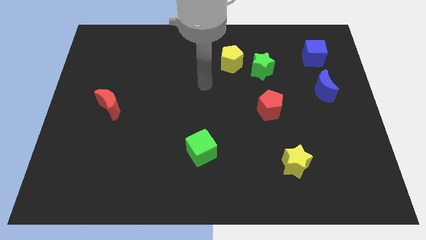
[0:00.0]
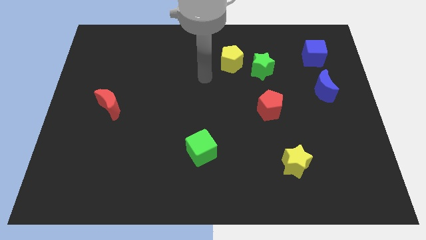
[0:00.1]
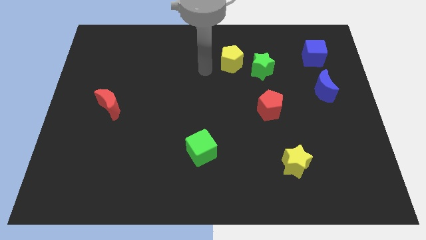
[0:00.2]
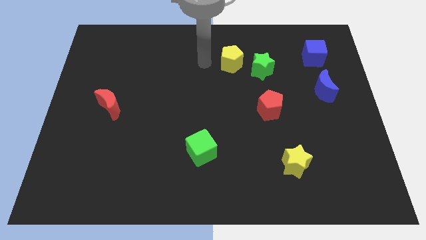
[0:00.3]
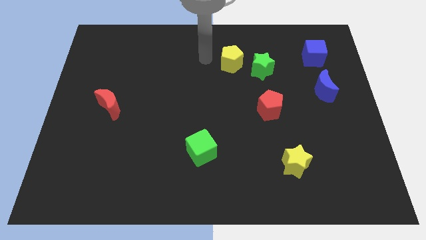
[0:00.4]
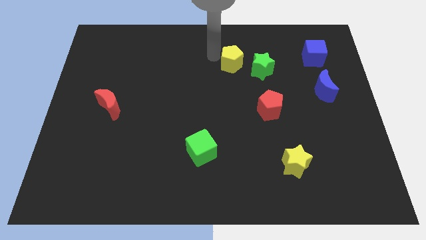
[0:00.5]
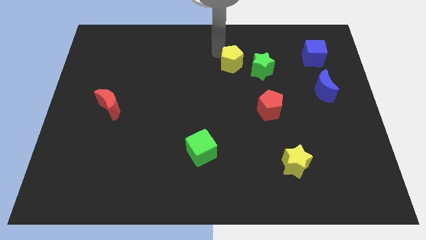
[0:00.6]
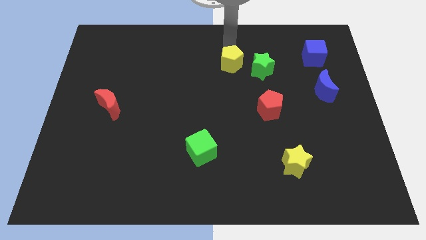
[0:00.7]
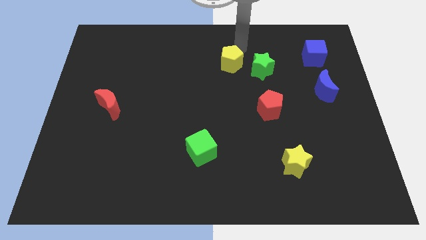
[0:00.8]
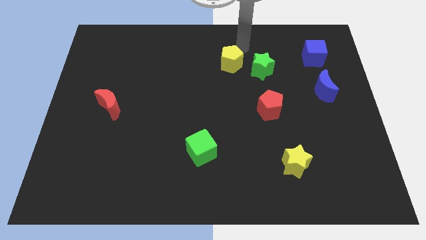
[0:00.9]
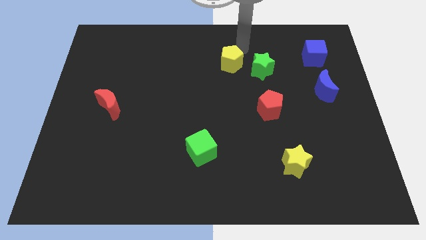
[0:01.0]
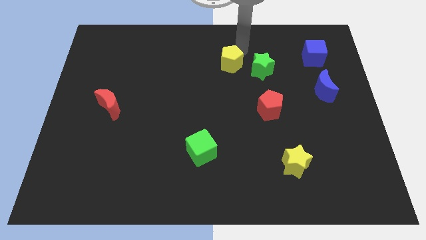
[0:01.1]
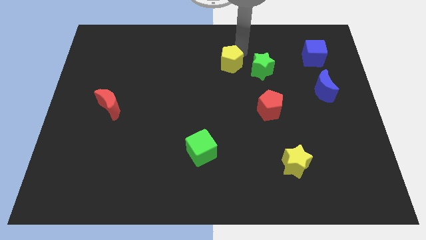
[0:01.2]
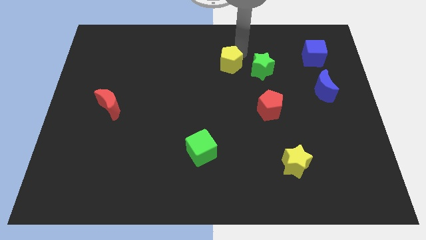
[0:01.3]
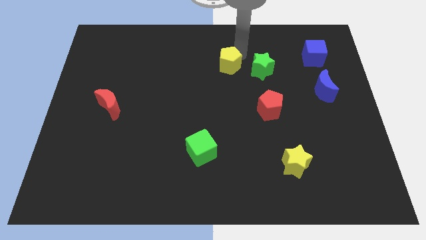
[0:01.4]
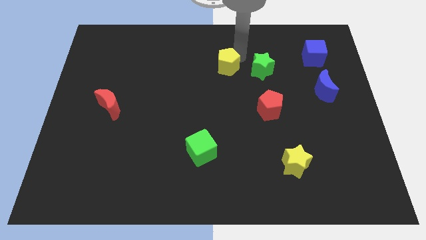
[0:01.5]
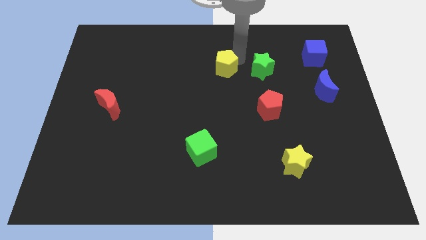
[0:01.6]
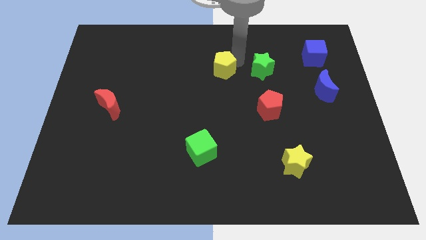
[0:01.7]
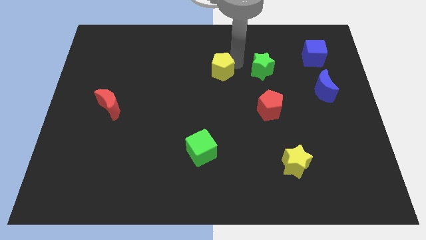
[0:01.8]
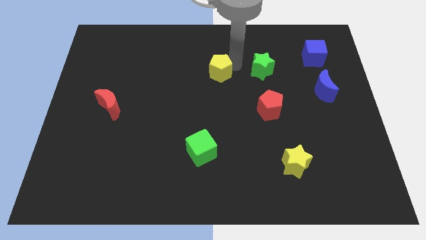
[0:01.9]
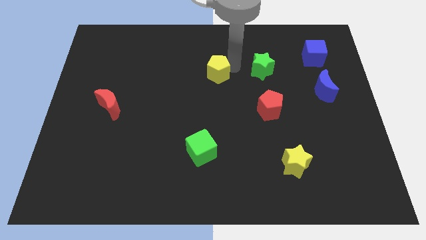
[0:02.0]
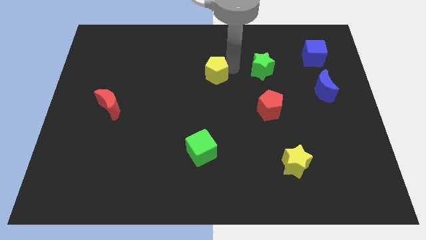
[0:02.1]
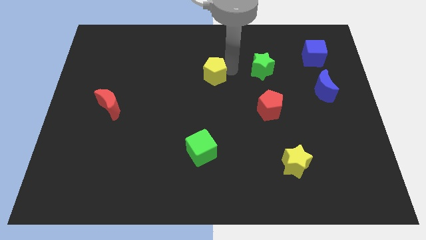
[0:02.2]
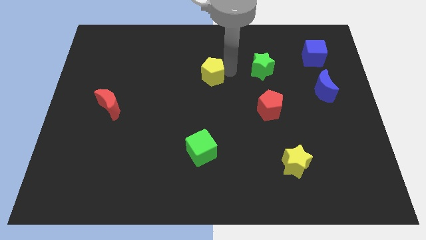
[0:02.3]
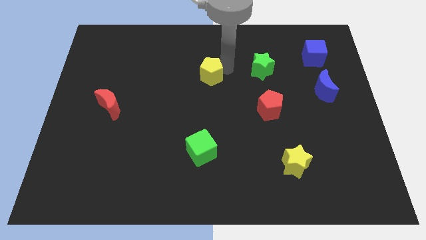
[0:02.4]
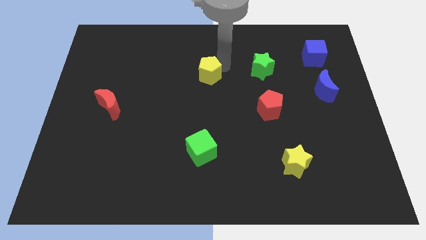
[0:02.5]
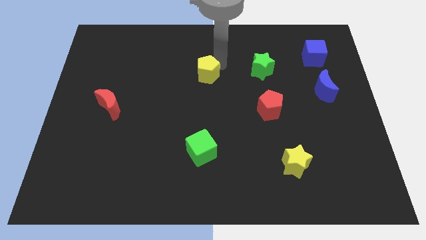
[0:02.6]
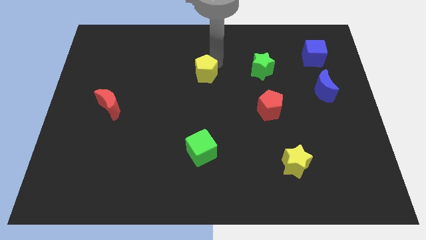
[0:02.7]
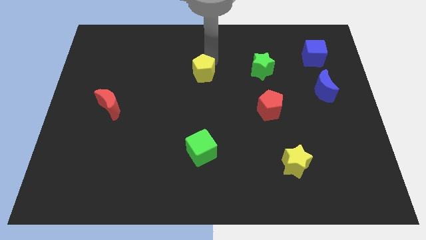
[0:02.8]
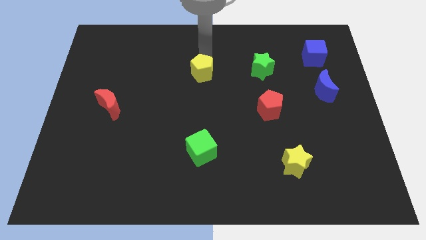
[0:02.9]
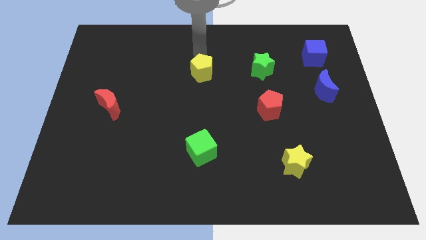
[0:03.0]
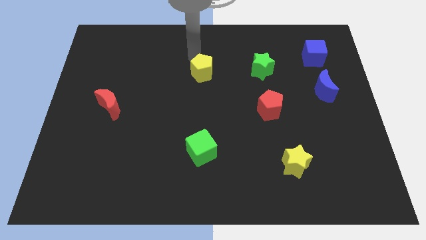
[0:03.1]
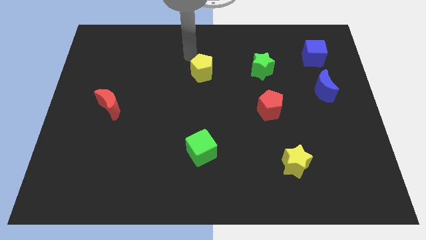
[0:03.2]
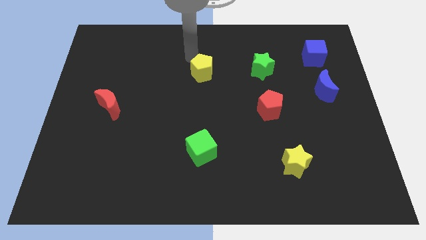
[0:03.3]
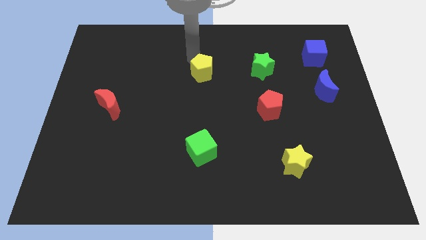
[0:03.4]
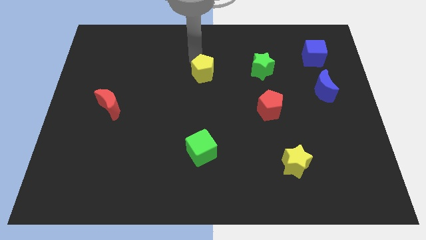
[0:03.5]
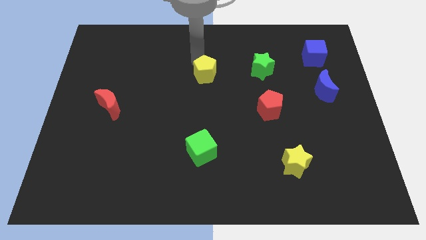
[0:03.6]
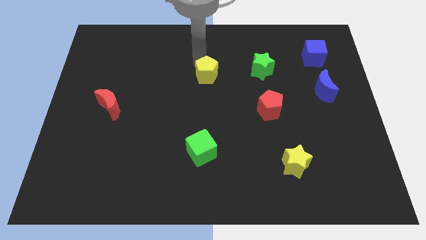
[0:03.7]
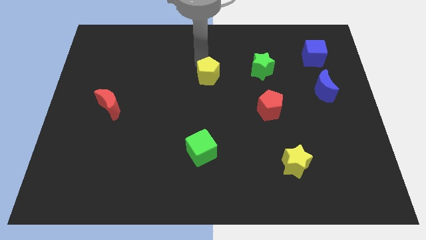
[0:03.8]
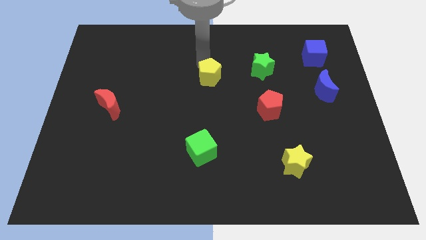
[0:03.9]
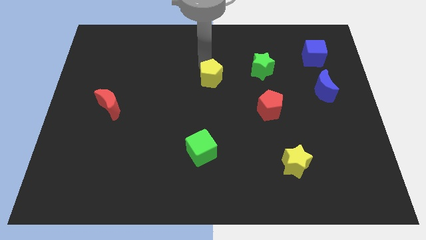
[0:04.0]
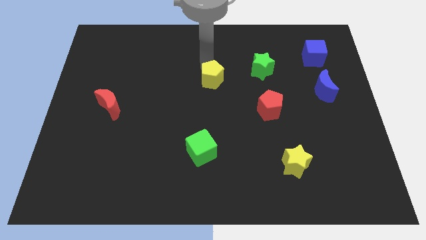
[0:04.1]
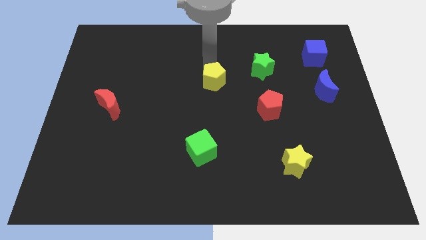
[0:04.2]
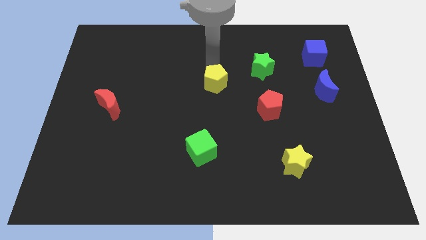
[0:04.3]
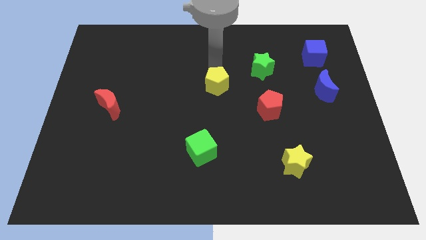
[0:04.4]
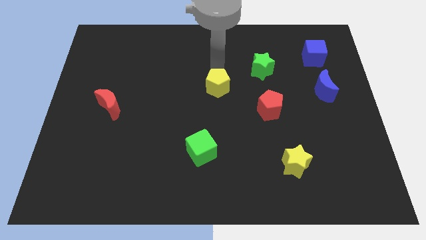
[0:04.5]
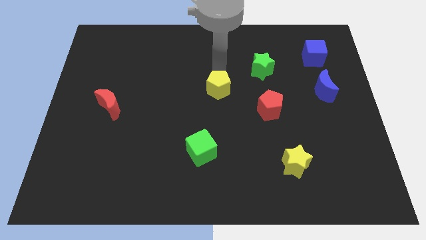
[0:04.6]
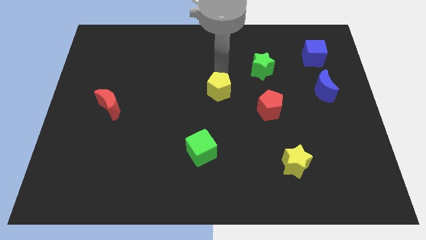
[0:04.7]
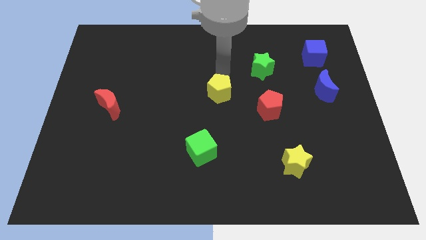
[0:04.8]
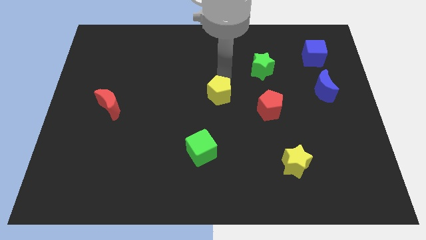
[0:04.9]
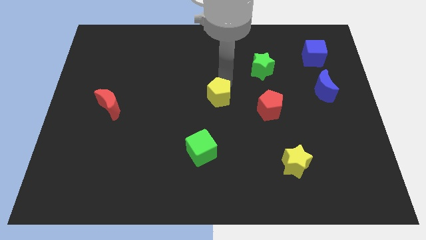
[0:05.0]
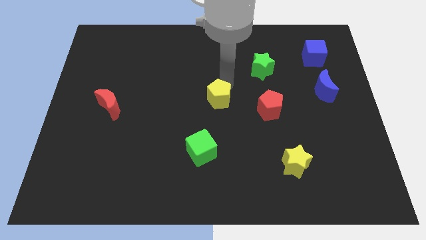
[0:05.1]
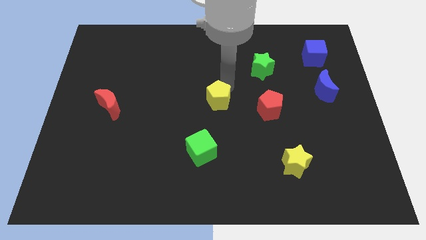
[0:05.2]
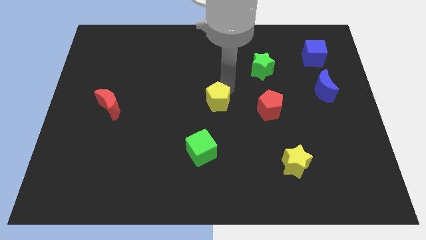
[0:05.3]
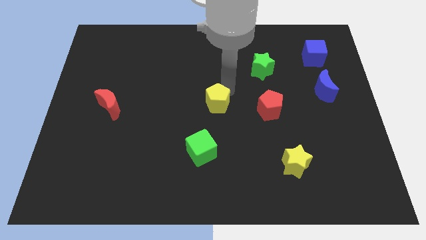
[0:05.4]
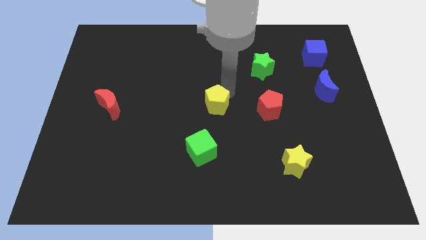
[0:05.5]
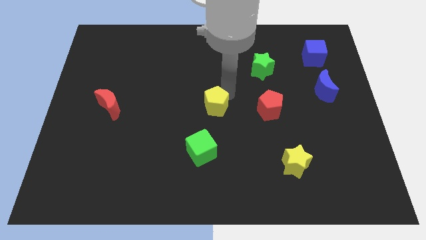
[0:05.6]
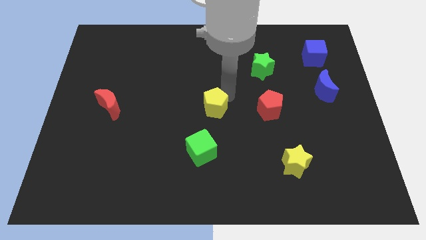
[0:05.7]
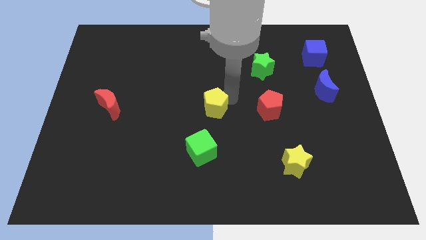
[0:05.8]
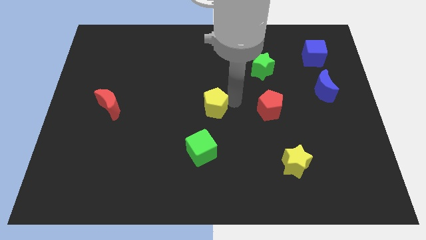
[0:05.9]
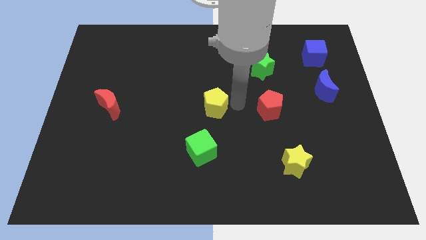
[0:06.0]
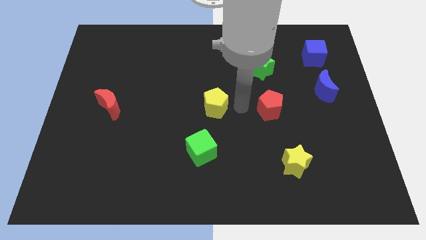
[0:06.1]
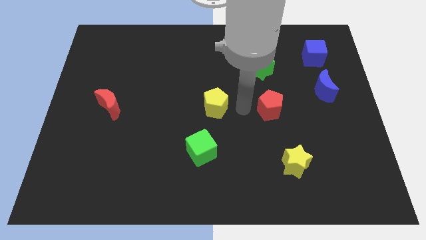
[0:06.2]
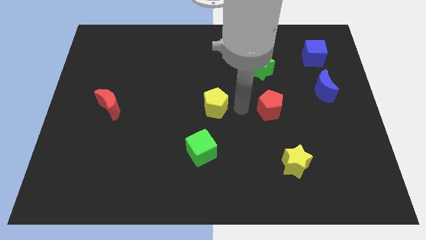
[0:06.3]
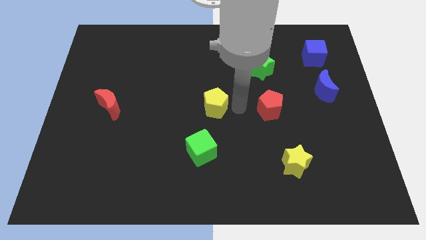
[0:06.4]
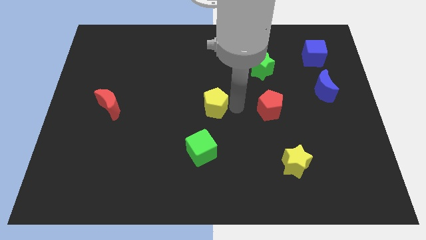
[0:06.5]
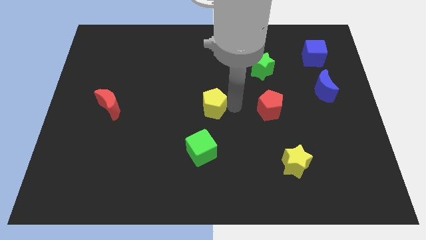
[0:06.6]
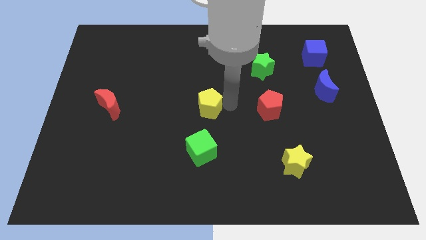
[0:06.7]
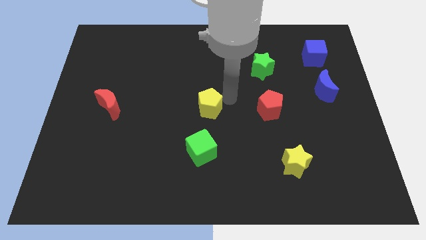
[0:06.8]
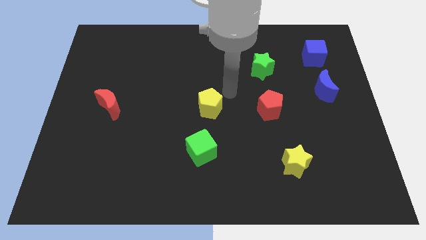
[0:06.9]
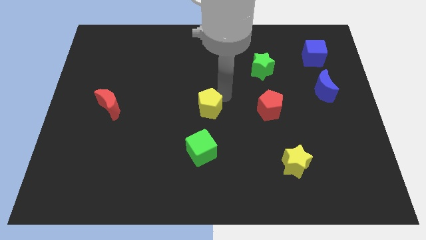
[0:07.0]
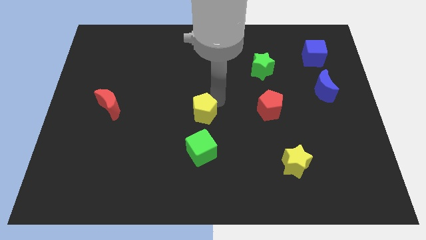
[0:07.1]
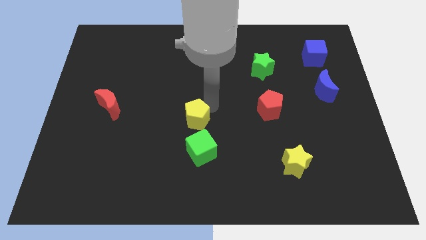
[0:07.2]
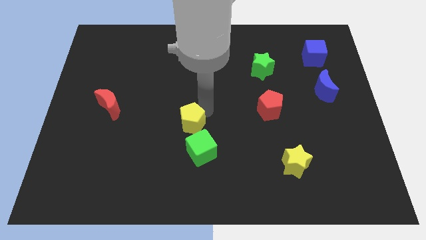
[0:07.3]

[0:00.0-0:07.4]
put the yellow pentagon to the top left of the green cube
